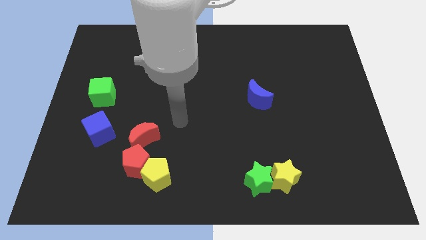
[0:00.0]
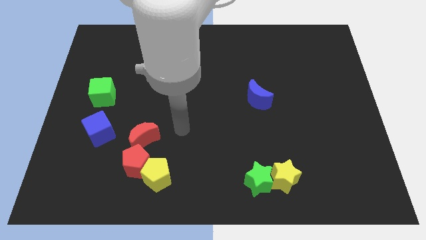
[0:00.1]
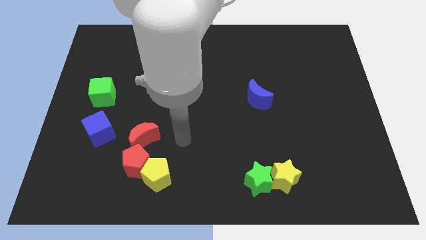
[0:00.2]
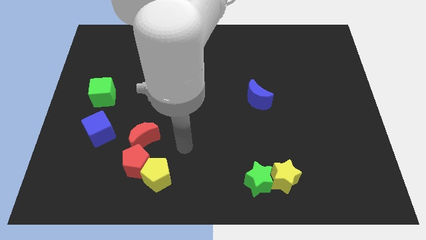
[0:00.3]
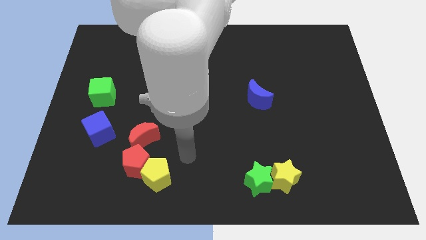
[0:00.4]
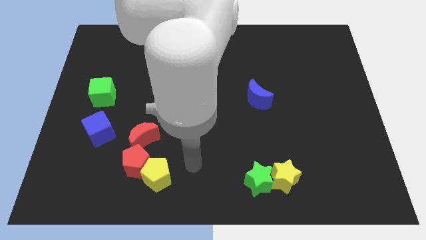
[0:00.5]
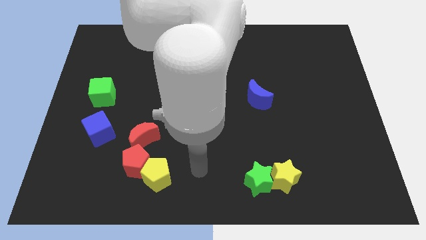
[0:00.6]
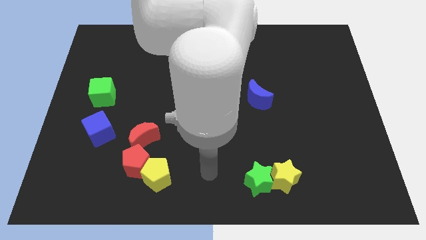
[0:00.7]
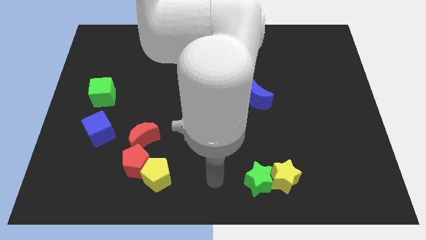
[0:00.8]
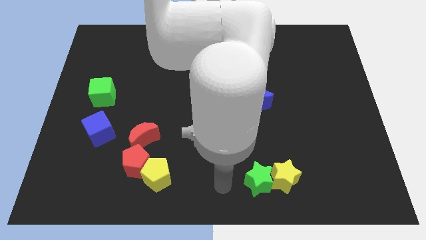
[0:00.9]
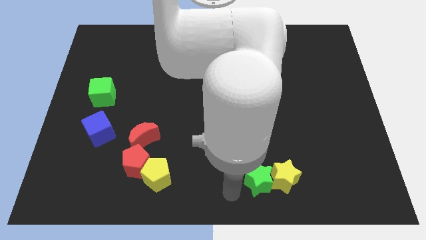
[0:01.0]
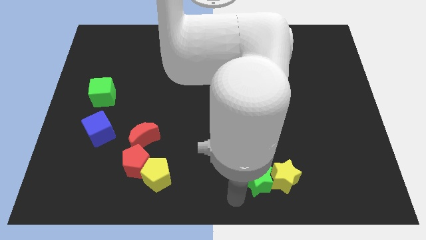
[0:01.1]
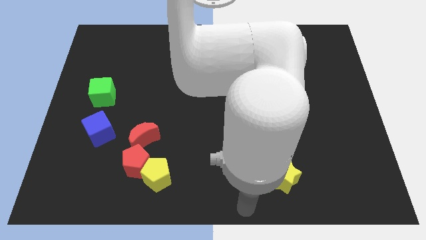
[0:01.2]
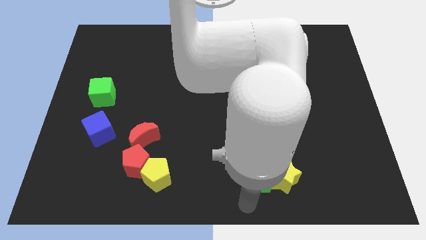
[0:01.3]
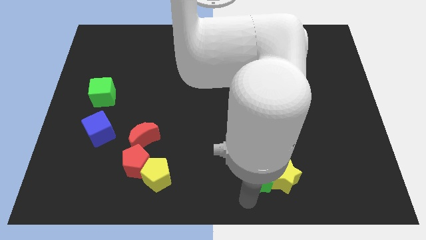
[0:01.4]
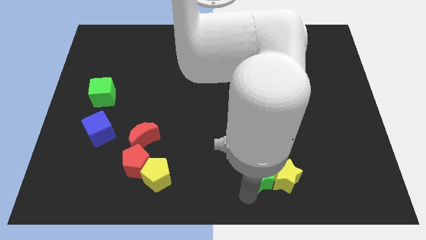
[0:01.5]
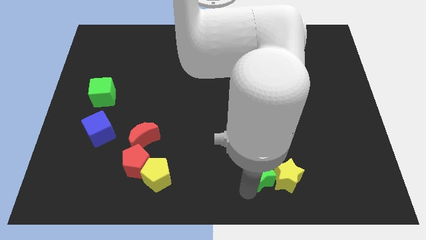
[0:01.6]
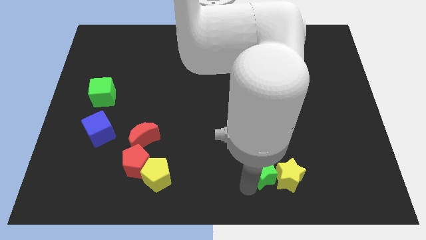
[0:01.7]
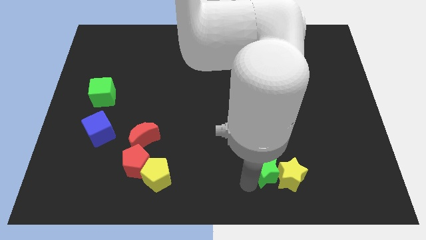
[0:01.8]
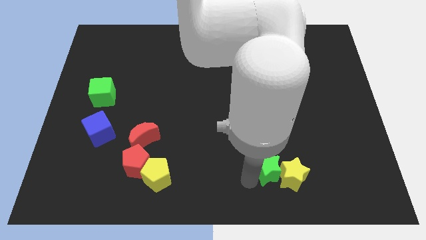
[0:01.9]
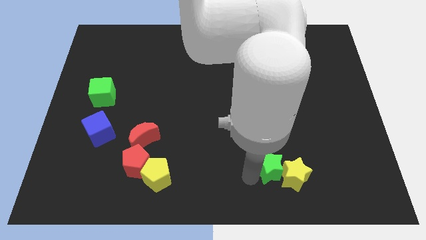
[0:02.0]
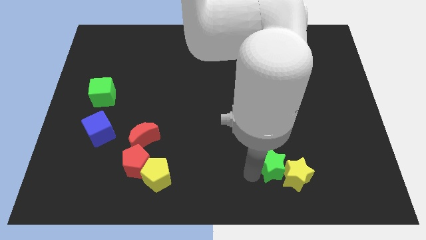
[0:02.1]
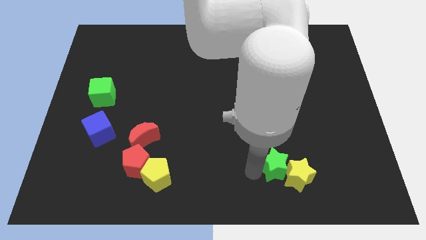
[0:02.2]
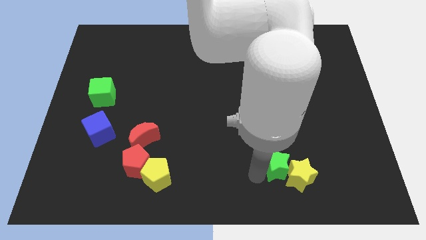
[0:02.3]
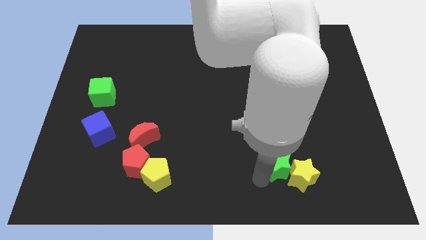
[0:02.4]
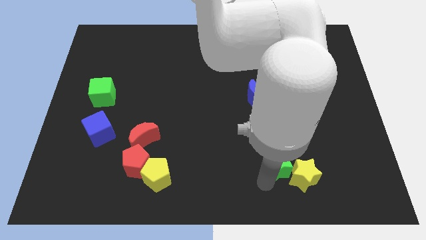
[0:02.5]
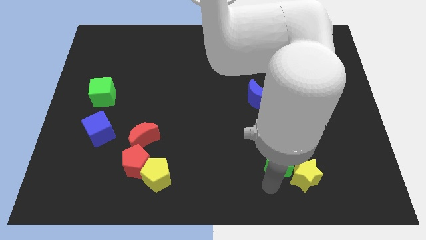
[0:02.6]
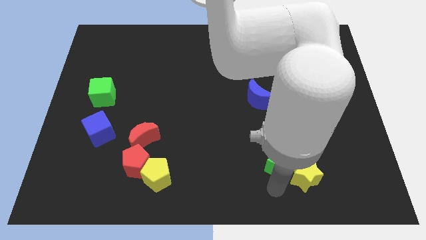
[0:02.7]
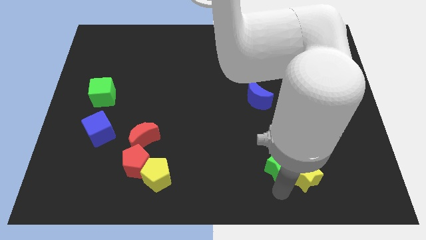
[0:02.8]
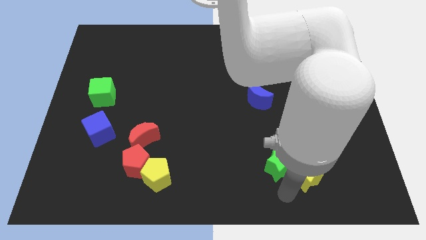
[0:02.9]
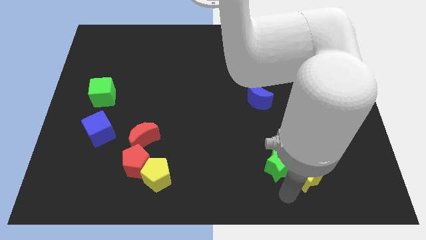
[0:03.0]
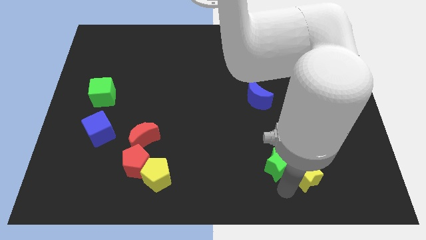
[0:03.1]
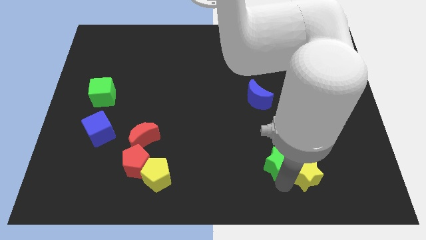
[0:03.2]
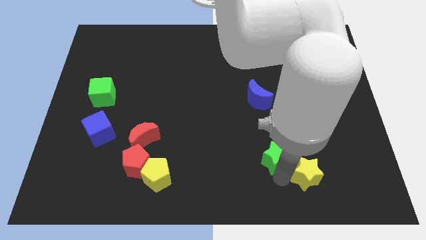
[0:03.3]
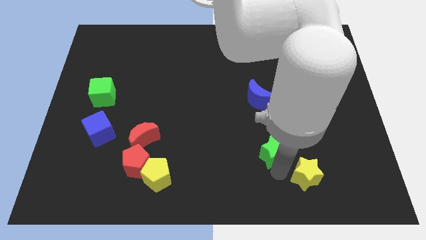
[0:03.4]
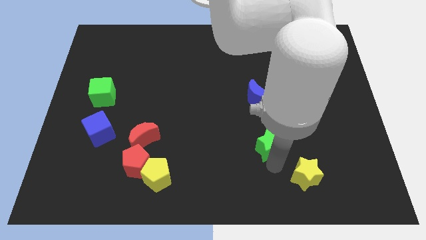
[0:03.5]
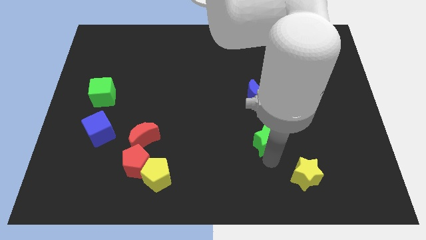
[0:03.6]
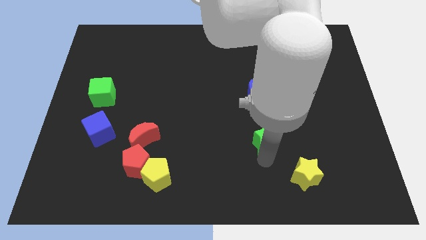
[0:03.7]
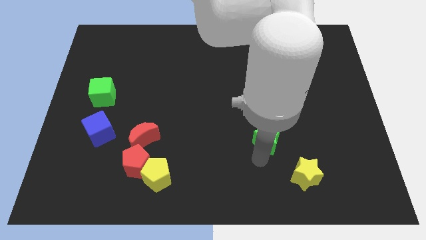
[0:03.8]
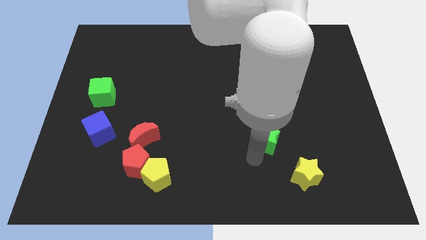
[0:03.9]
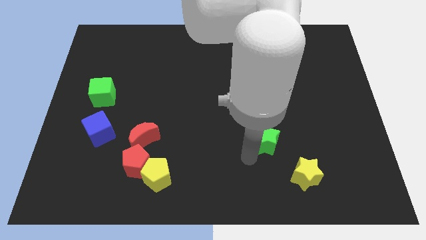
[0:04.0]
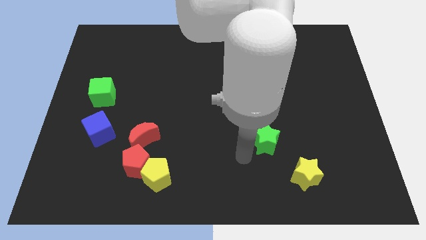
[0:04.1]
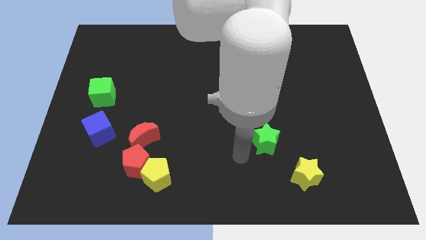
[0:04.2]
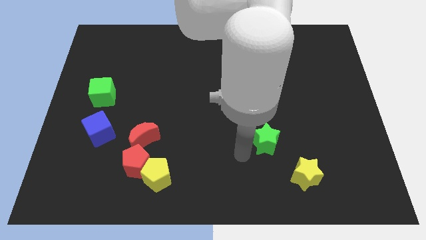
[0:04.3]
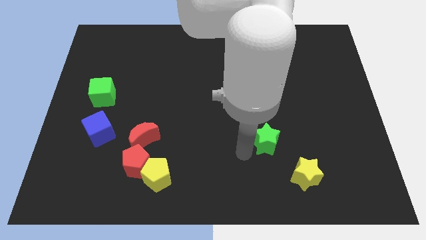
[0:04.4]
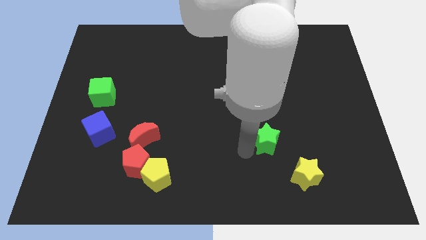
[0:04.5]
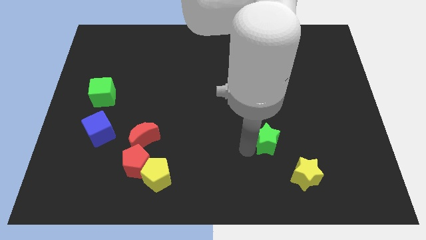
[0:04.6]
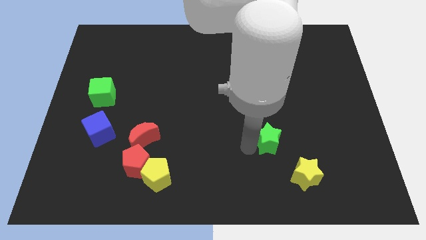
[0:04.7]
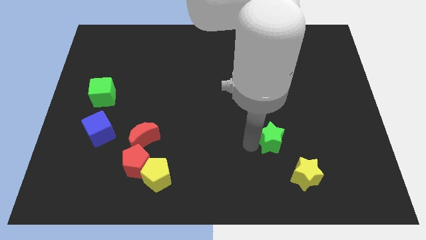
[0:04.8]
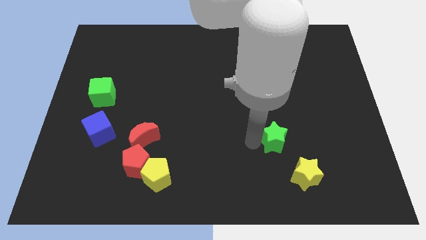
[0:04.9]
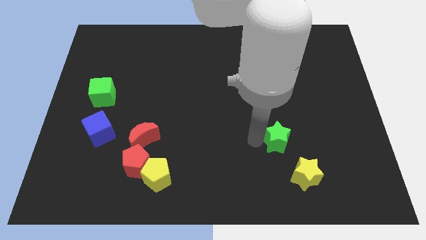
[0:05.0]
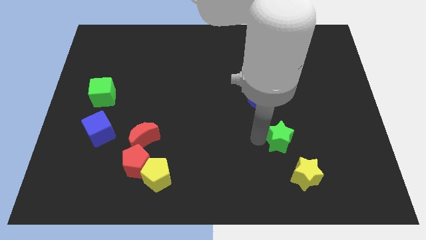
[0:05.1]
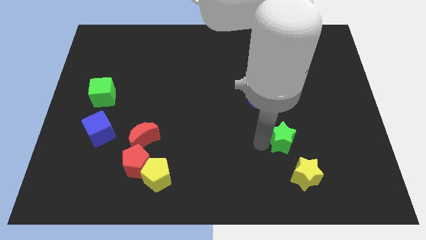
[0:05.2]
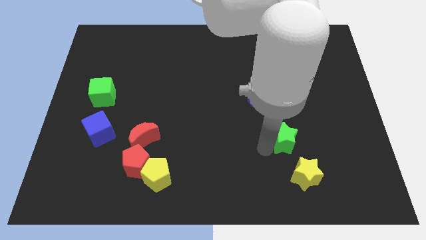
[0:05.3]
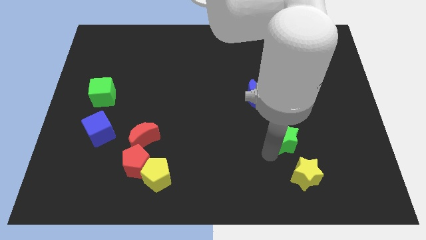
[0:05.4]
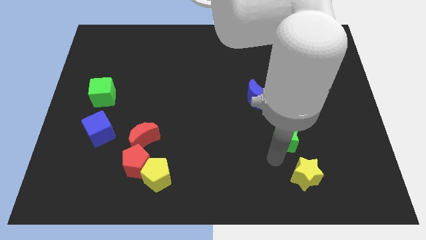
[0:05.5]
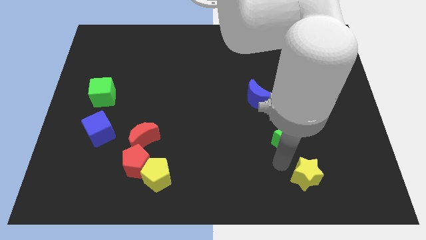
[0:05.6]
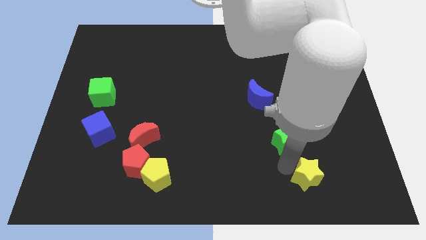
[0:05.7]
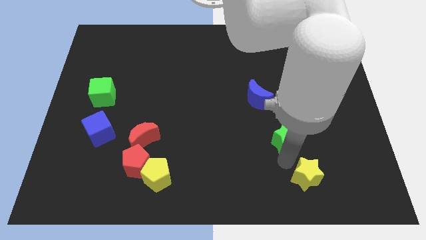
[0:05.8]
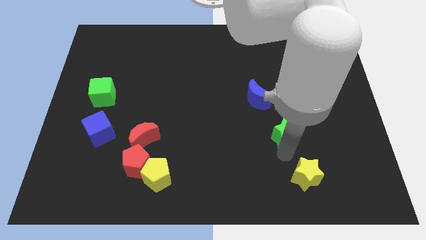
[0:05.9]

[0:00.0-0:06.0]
push the green star to the bottom right side of the blue moon
